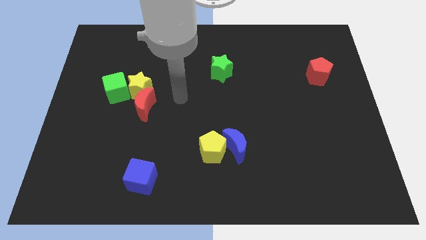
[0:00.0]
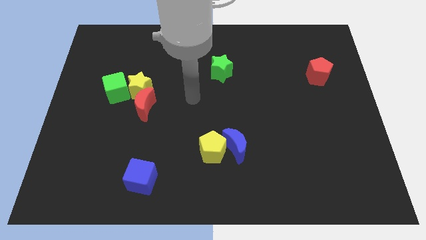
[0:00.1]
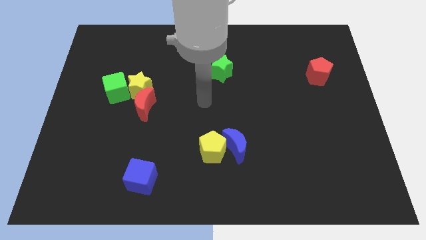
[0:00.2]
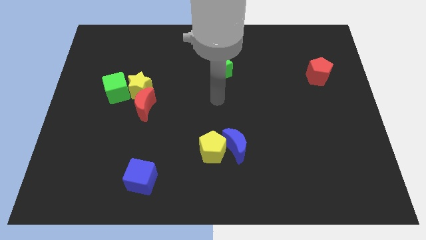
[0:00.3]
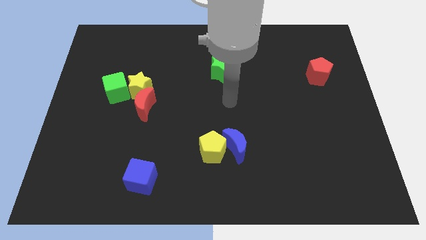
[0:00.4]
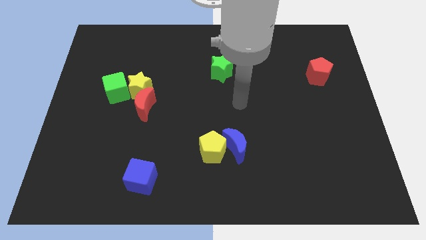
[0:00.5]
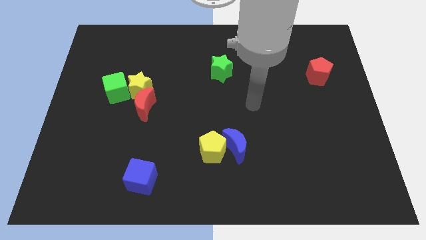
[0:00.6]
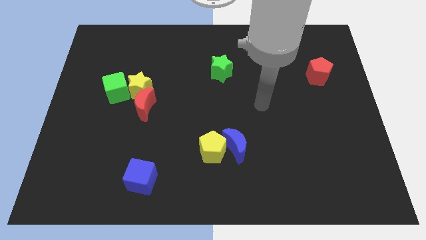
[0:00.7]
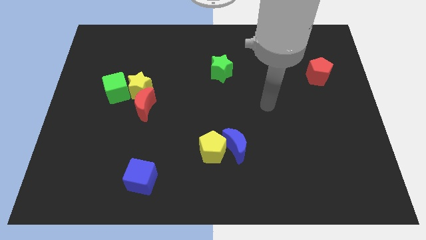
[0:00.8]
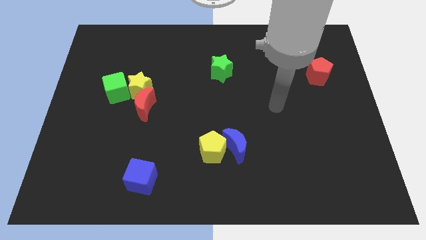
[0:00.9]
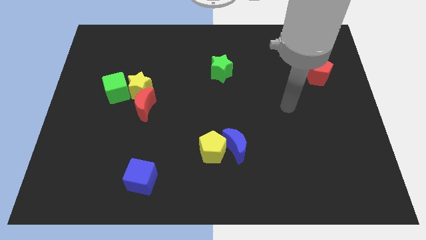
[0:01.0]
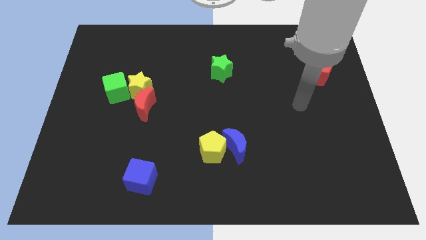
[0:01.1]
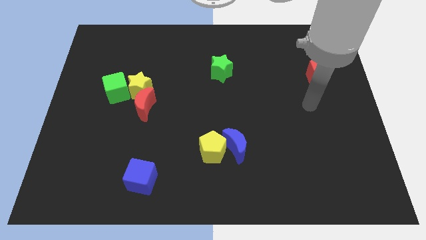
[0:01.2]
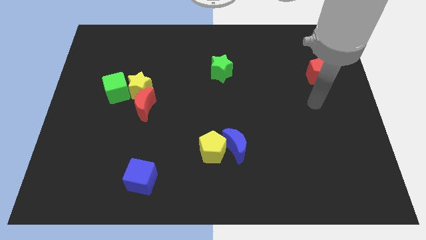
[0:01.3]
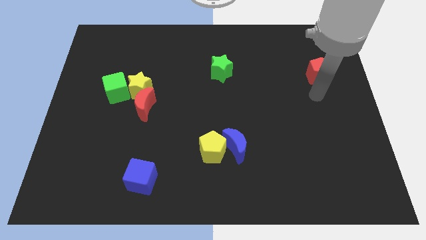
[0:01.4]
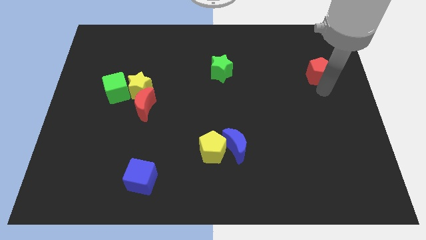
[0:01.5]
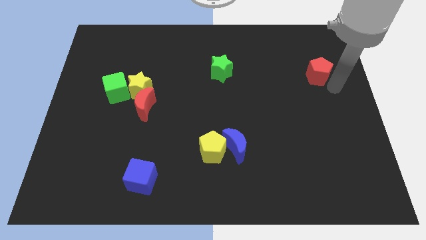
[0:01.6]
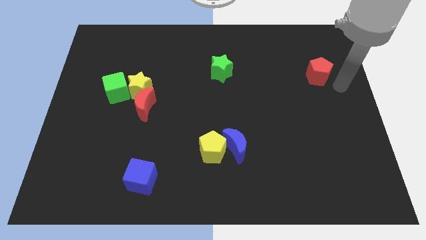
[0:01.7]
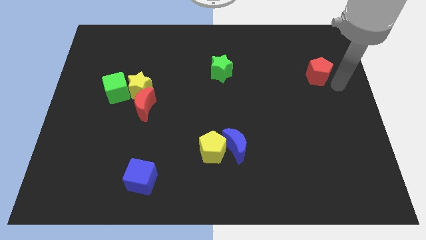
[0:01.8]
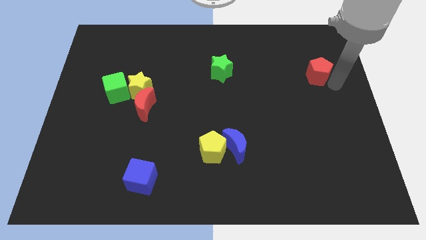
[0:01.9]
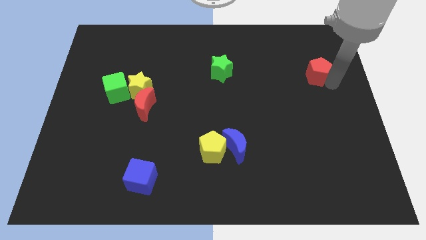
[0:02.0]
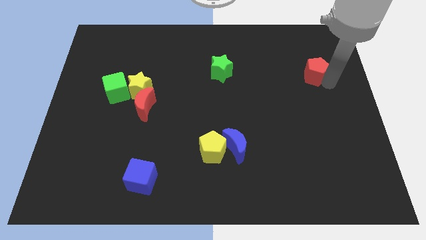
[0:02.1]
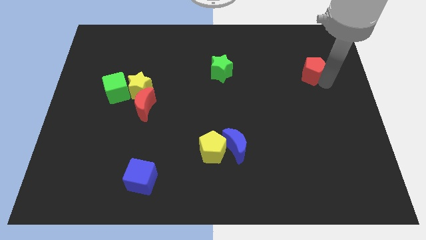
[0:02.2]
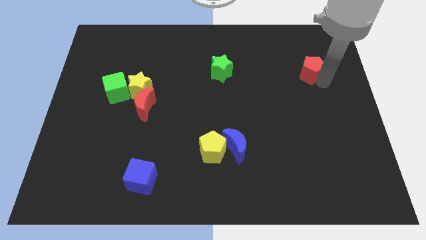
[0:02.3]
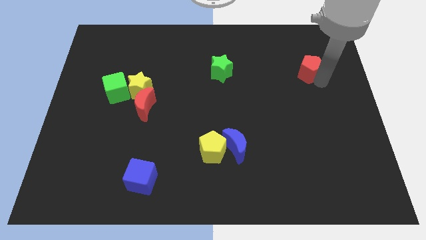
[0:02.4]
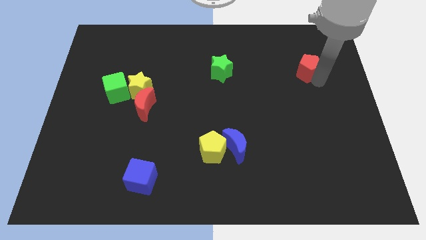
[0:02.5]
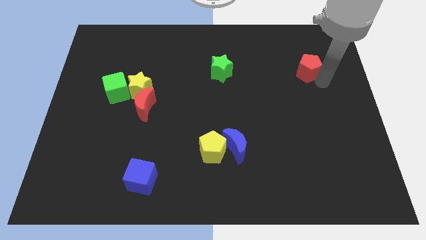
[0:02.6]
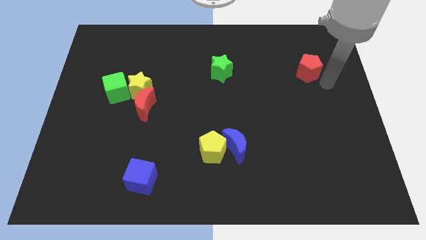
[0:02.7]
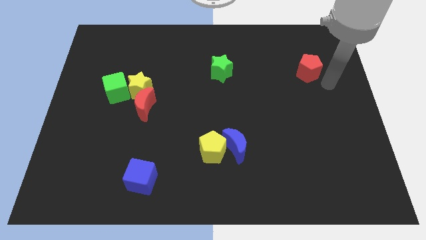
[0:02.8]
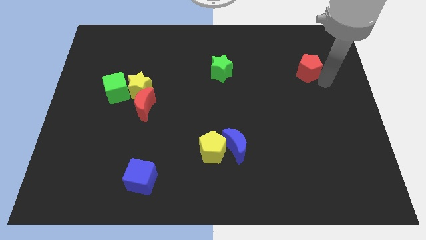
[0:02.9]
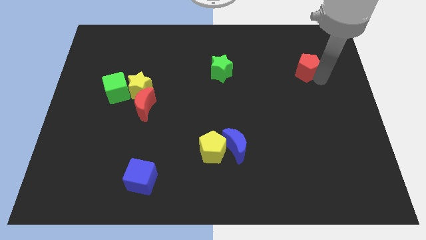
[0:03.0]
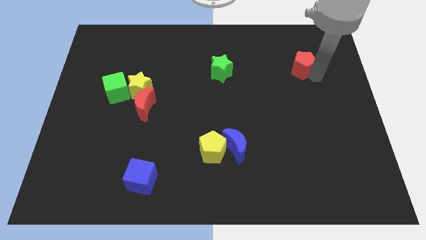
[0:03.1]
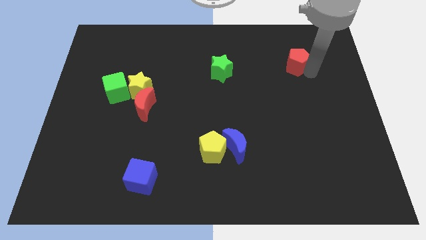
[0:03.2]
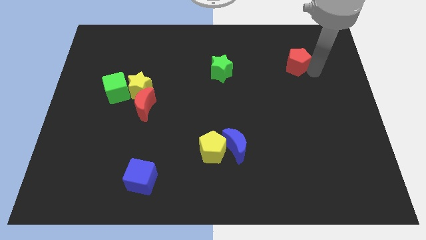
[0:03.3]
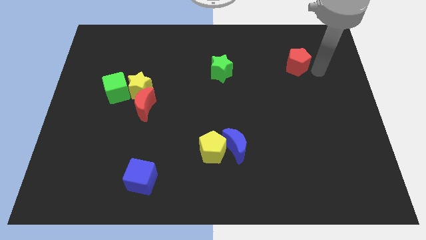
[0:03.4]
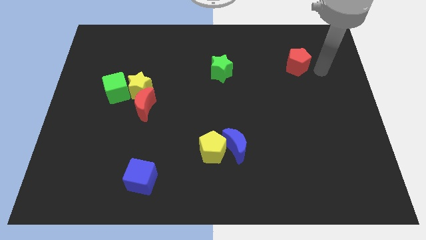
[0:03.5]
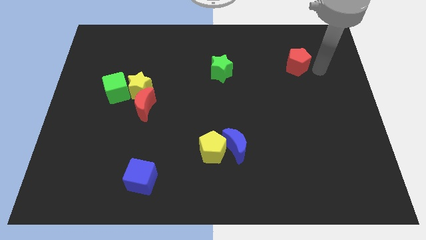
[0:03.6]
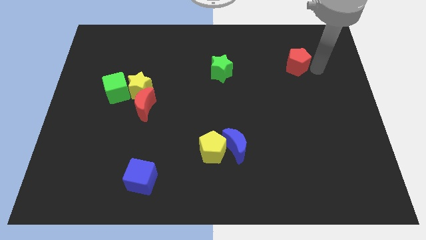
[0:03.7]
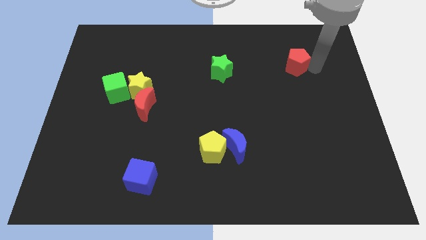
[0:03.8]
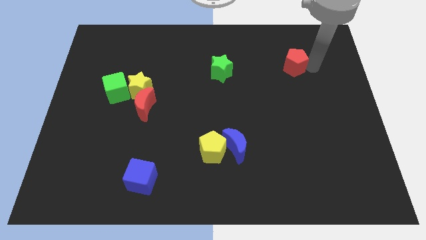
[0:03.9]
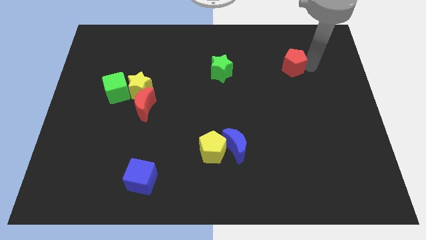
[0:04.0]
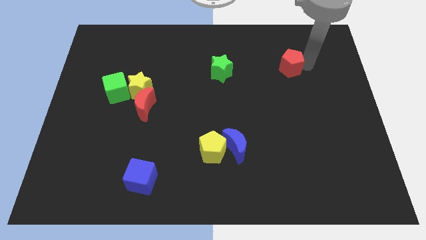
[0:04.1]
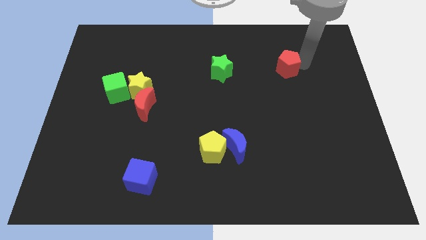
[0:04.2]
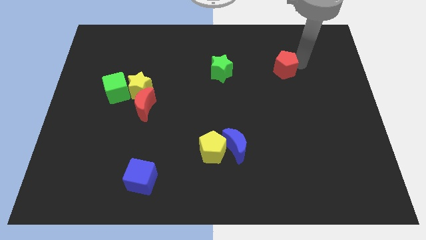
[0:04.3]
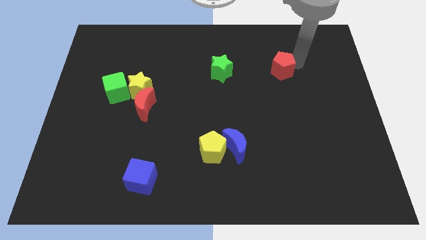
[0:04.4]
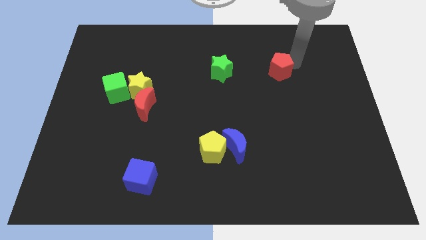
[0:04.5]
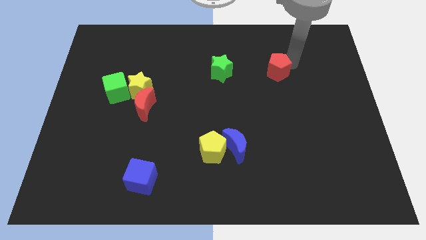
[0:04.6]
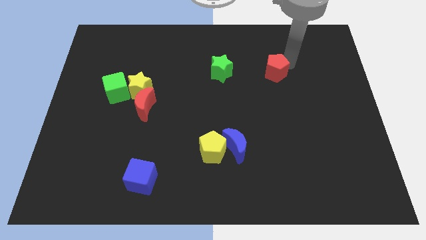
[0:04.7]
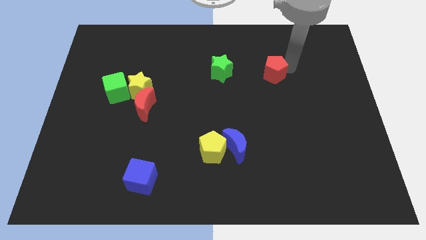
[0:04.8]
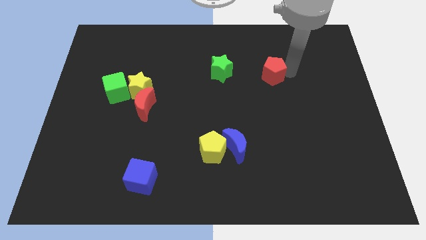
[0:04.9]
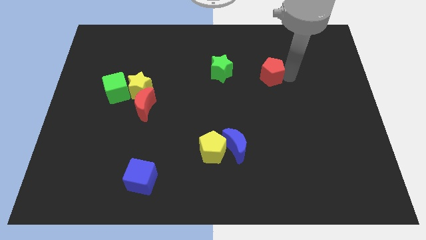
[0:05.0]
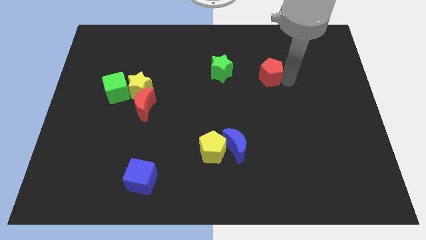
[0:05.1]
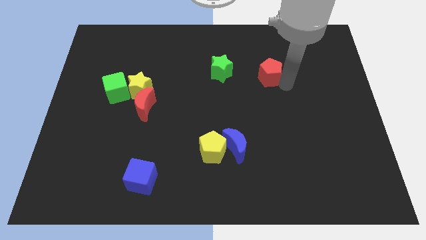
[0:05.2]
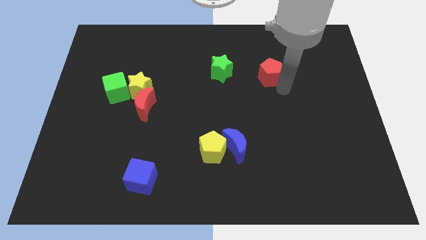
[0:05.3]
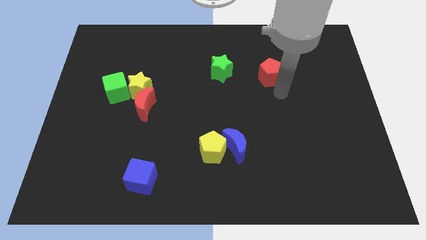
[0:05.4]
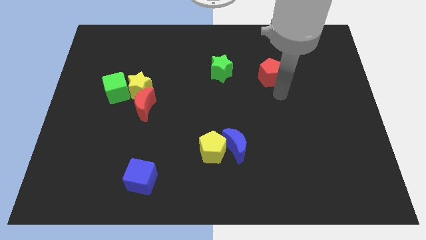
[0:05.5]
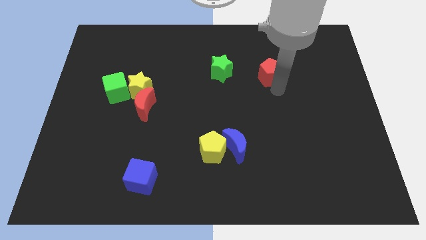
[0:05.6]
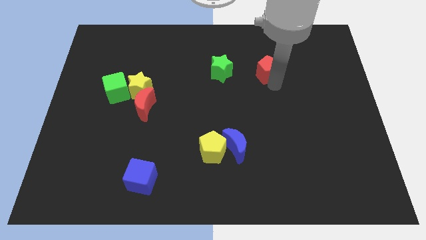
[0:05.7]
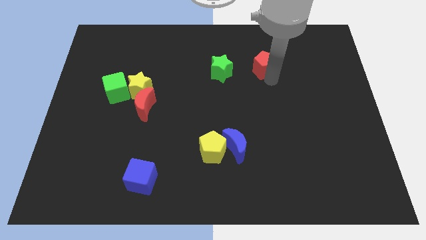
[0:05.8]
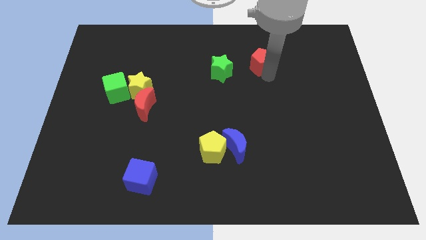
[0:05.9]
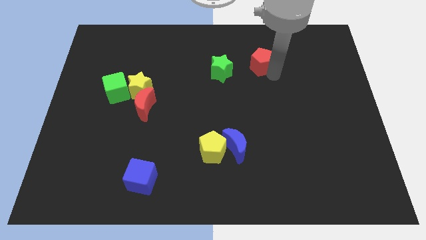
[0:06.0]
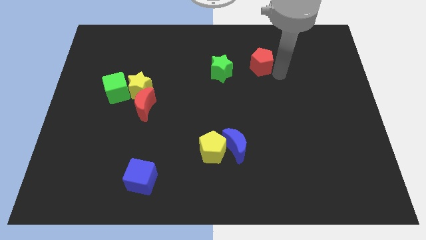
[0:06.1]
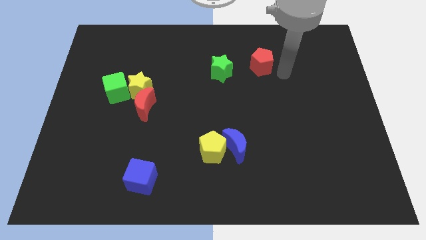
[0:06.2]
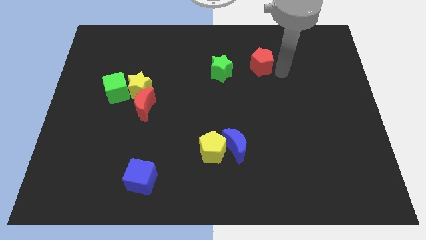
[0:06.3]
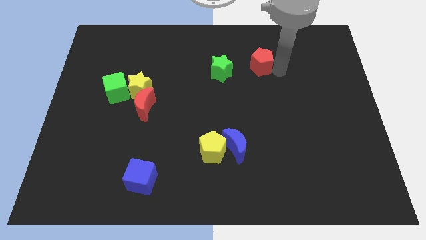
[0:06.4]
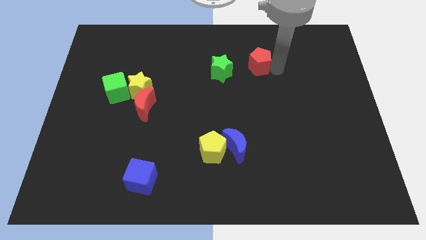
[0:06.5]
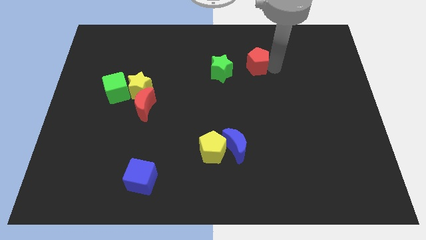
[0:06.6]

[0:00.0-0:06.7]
slide the red pentagon to the top right of the green star

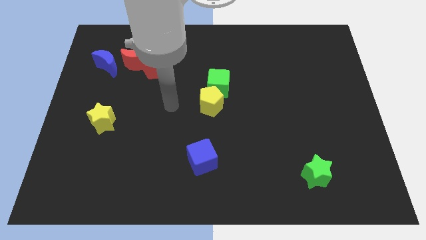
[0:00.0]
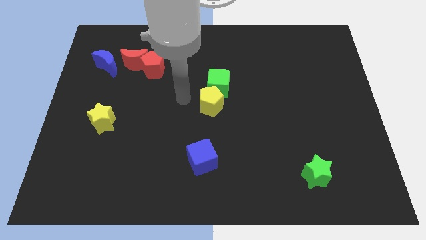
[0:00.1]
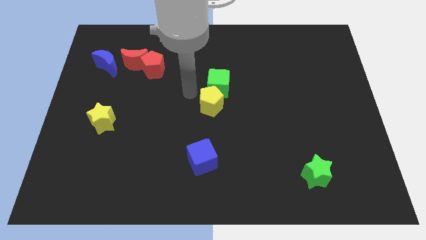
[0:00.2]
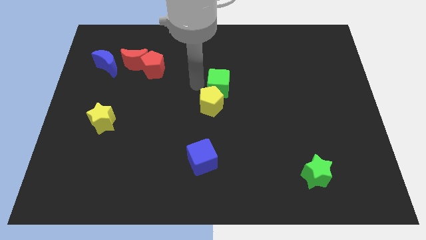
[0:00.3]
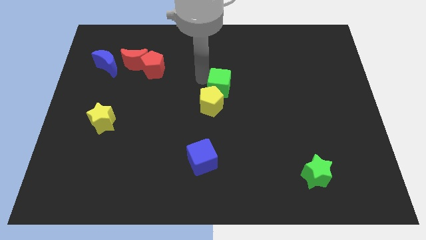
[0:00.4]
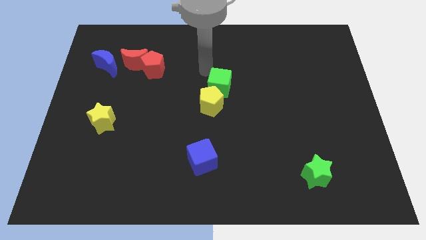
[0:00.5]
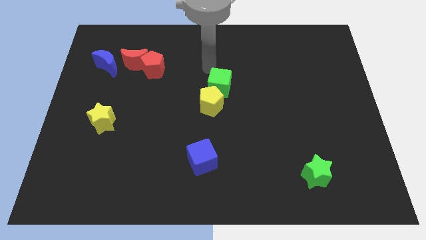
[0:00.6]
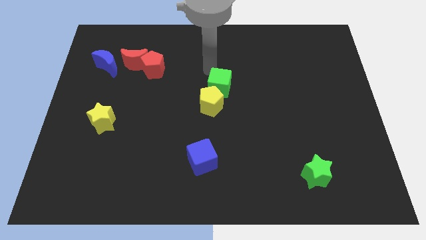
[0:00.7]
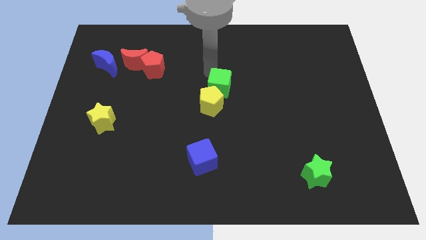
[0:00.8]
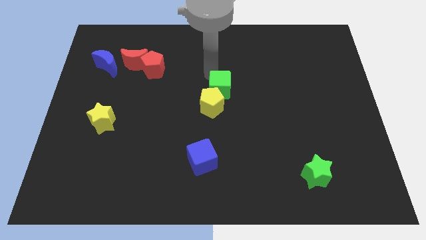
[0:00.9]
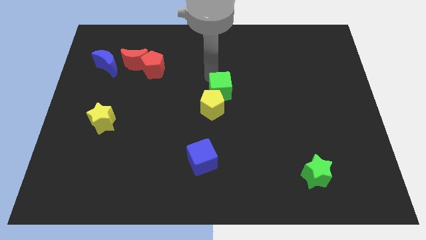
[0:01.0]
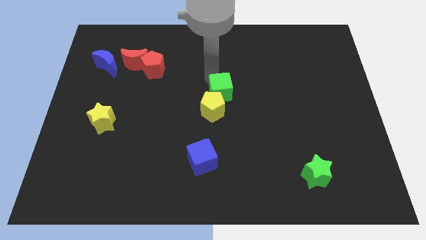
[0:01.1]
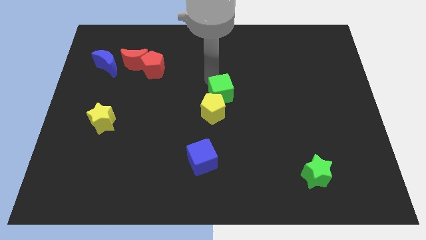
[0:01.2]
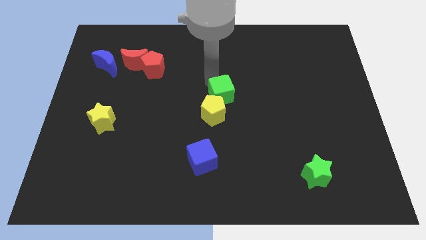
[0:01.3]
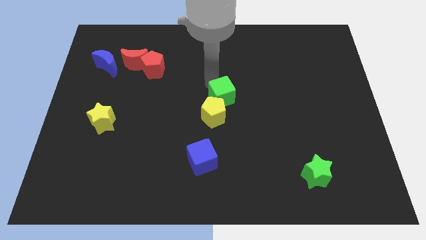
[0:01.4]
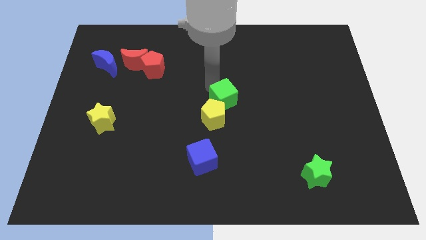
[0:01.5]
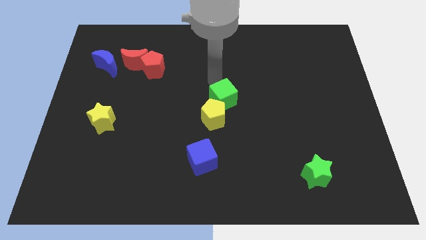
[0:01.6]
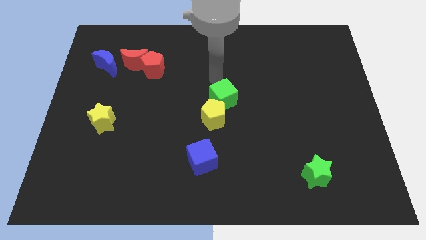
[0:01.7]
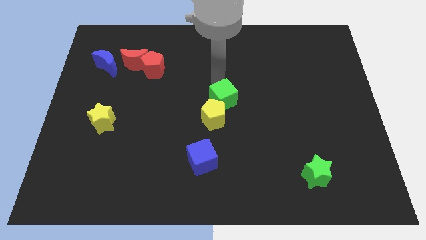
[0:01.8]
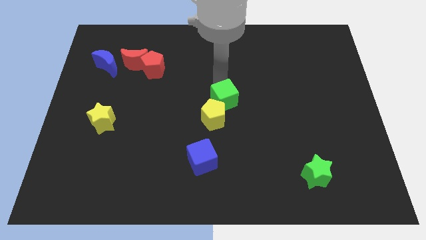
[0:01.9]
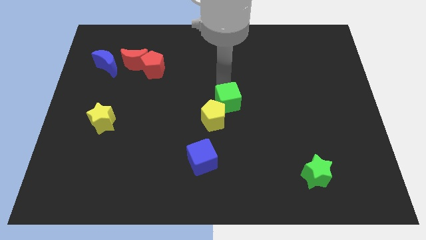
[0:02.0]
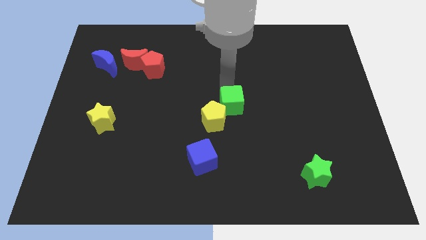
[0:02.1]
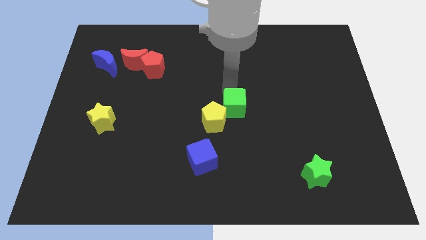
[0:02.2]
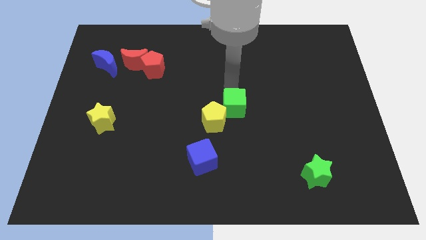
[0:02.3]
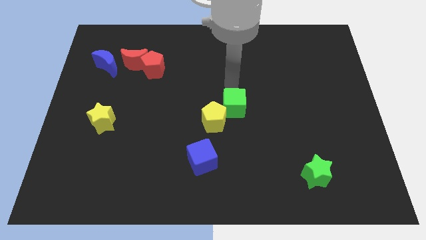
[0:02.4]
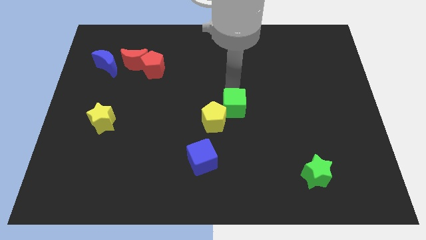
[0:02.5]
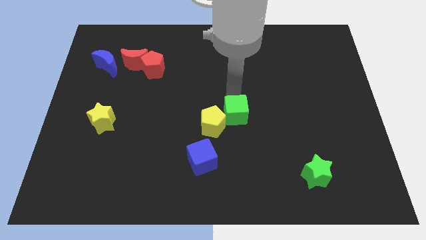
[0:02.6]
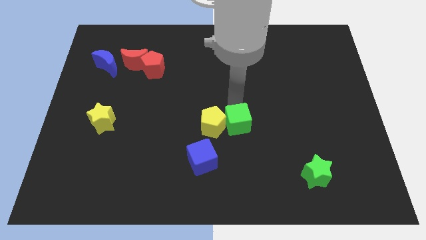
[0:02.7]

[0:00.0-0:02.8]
move the green cube to the bottom right side of the yellow pentagon
